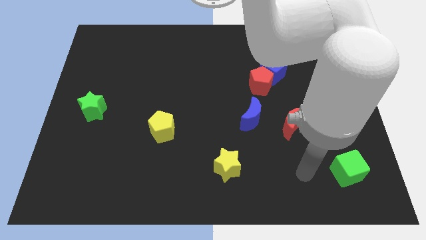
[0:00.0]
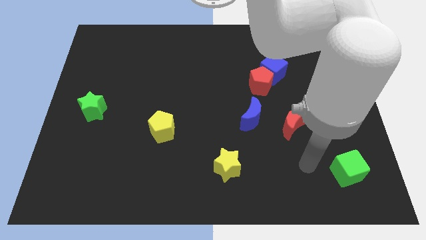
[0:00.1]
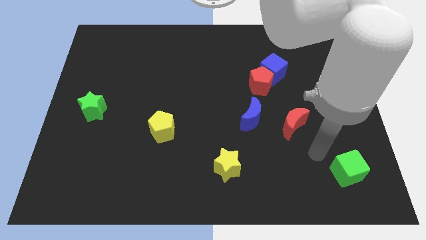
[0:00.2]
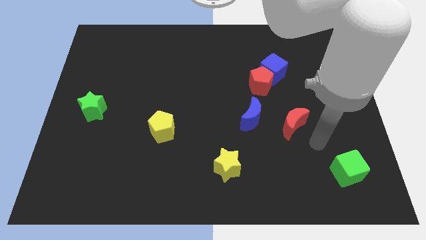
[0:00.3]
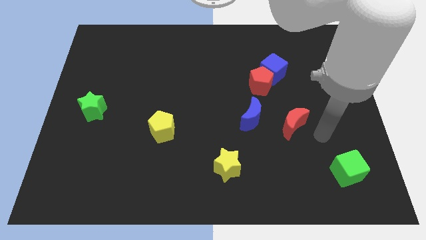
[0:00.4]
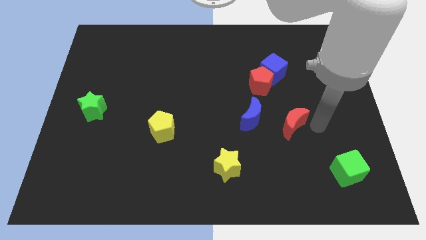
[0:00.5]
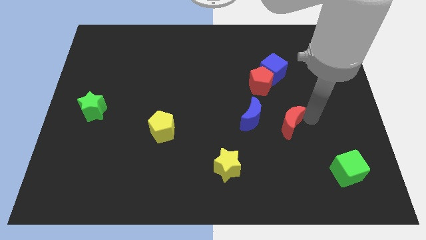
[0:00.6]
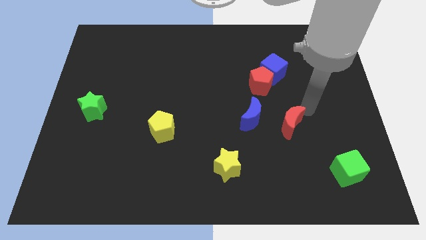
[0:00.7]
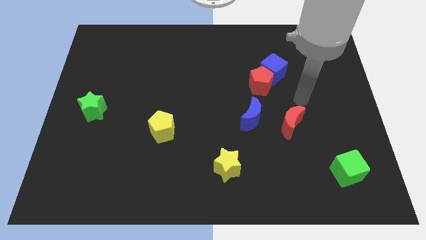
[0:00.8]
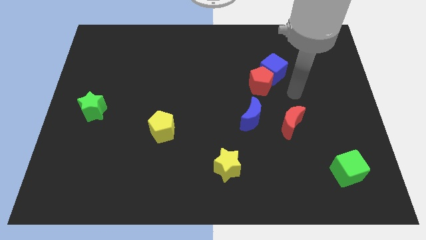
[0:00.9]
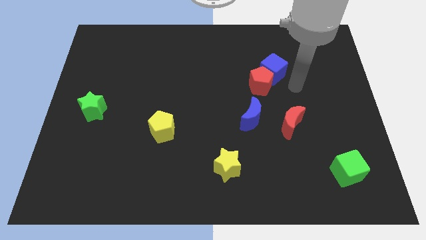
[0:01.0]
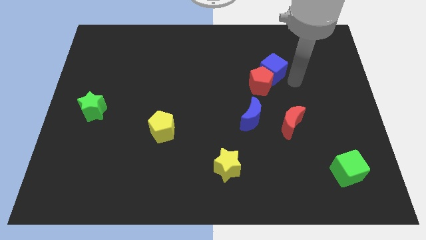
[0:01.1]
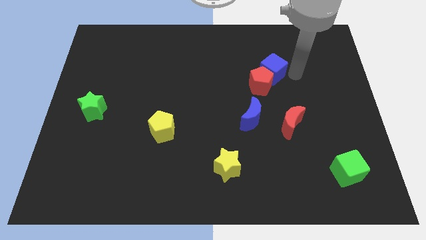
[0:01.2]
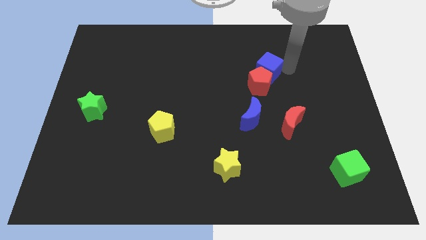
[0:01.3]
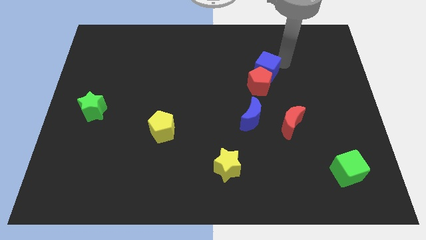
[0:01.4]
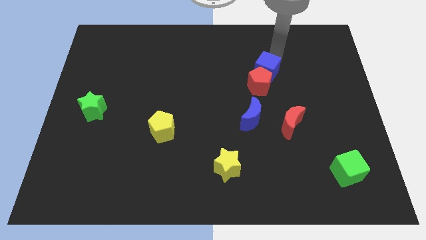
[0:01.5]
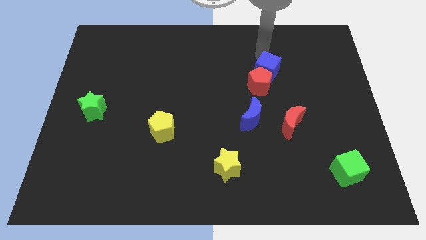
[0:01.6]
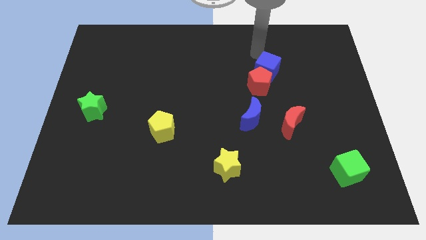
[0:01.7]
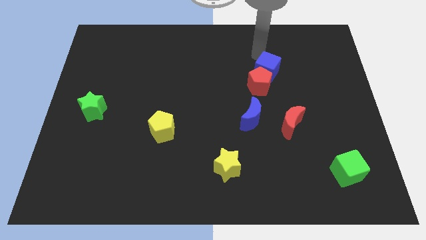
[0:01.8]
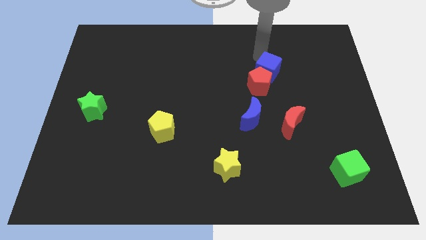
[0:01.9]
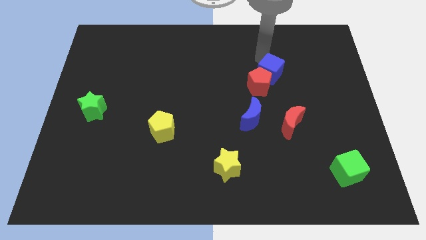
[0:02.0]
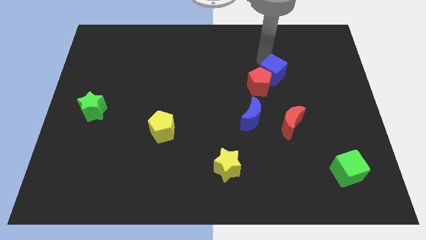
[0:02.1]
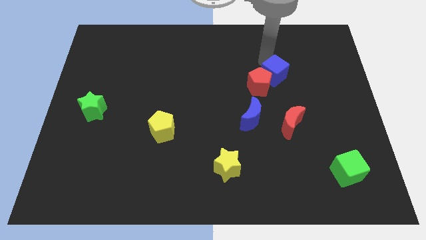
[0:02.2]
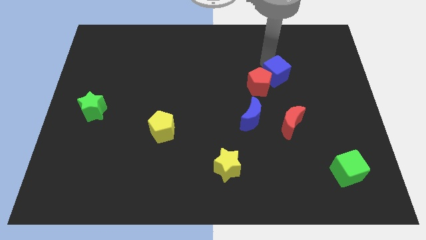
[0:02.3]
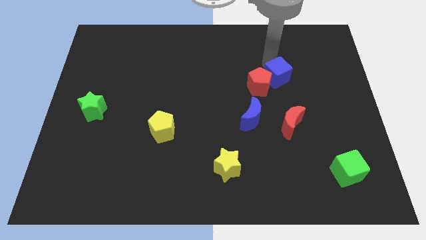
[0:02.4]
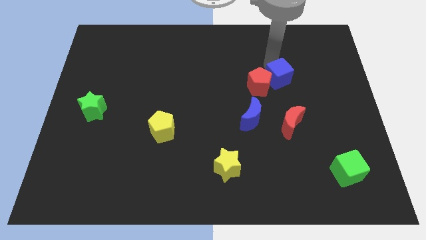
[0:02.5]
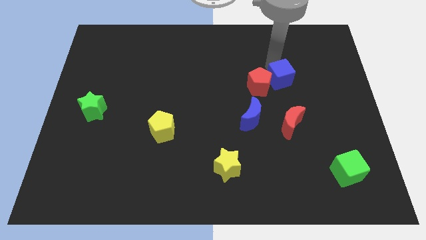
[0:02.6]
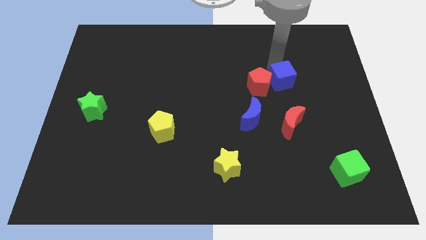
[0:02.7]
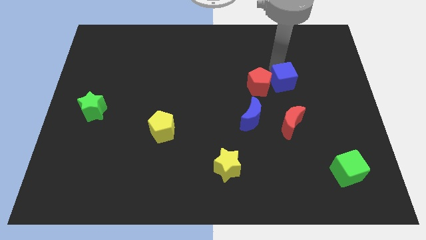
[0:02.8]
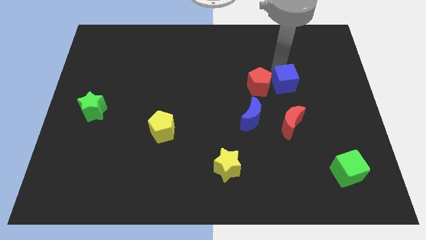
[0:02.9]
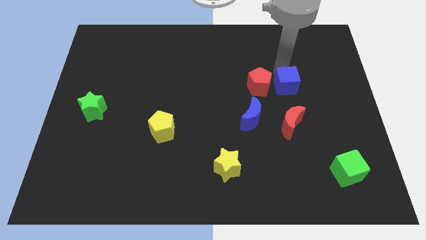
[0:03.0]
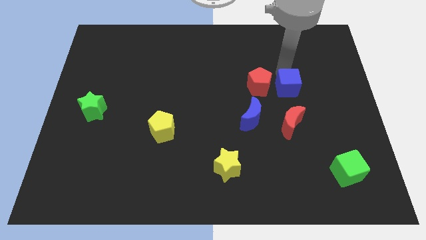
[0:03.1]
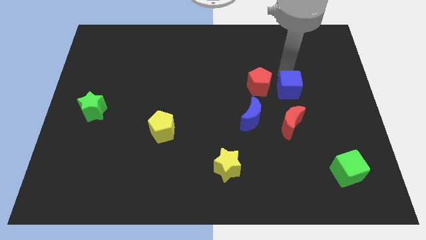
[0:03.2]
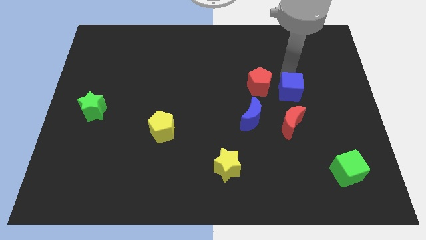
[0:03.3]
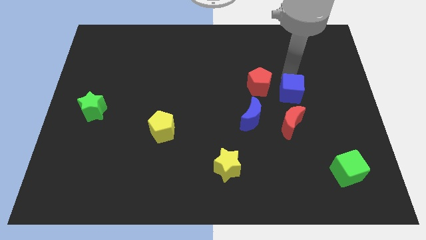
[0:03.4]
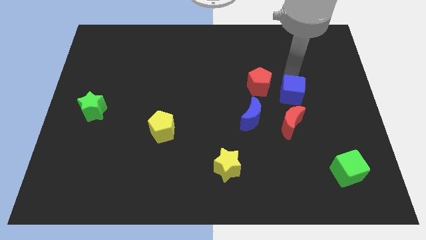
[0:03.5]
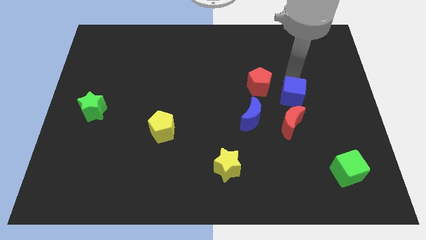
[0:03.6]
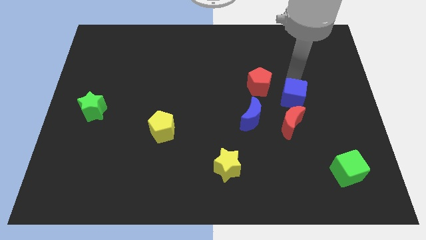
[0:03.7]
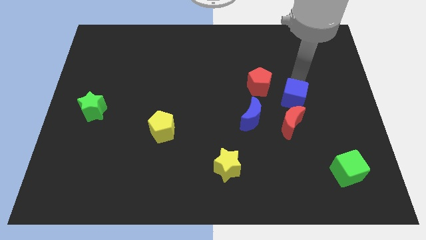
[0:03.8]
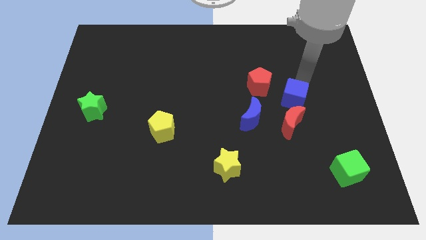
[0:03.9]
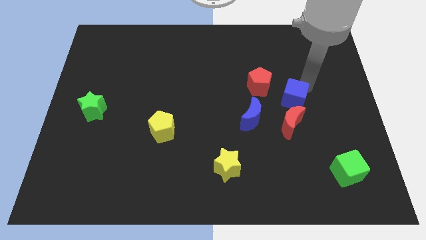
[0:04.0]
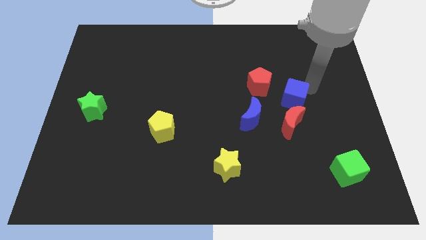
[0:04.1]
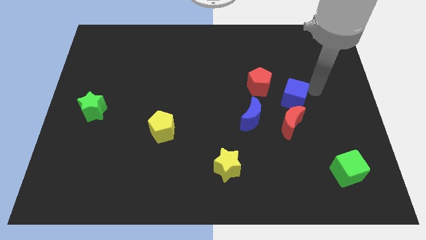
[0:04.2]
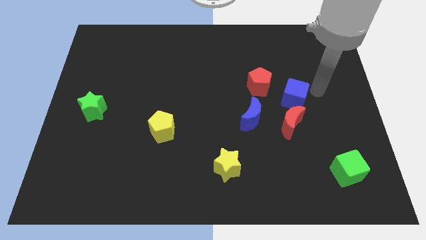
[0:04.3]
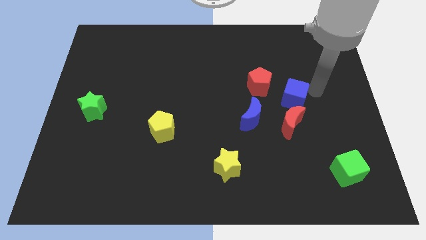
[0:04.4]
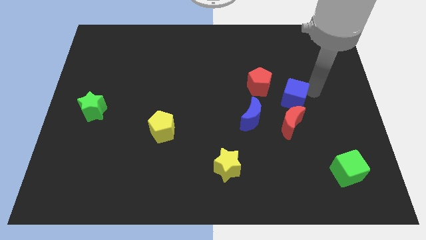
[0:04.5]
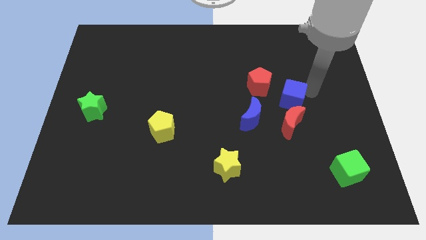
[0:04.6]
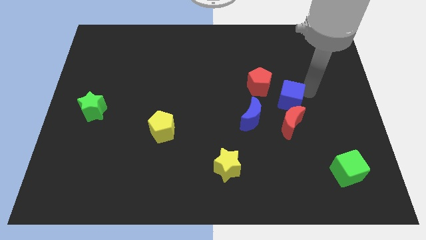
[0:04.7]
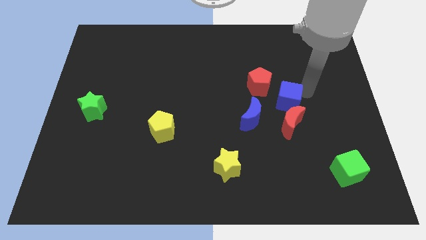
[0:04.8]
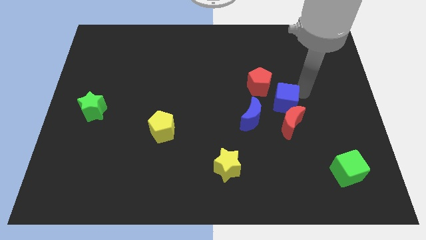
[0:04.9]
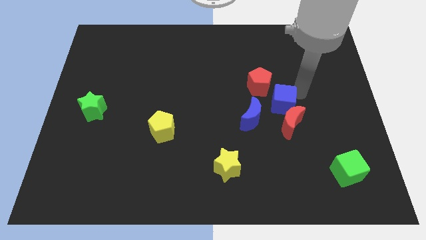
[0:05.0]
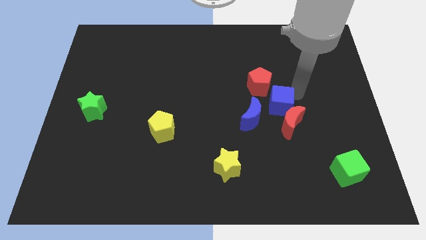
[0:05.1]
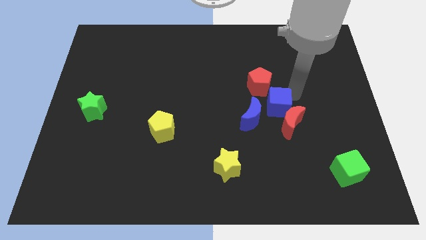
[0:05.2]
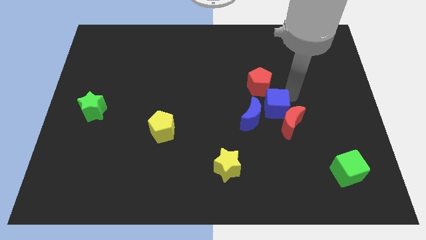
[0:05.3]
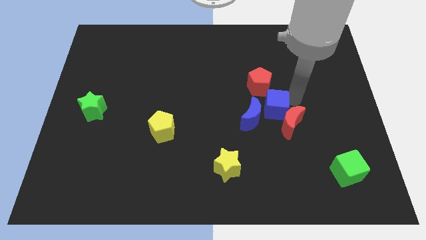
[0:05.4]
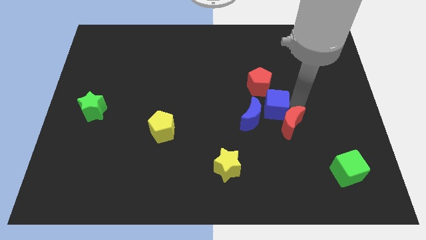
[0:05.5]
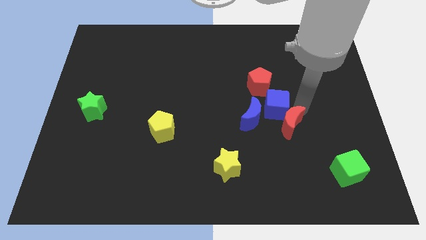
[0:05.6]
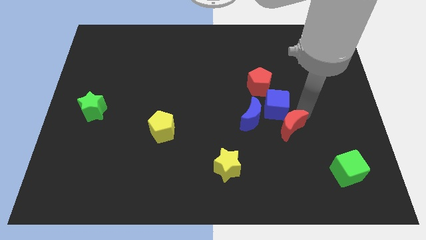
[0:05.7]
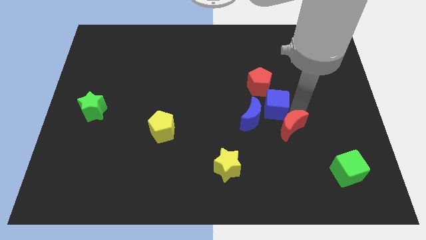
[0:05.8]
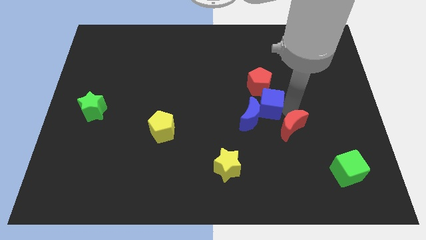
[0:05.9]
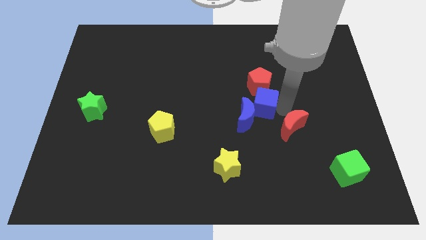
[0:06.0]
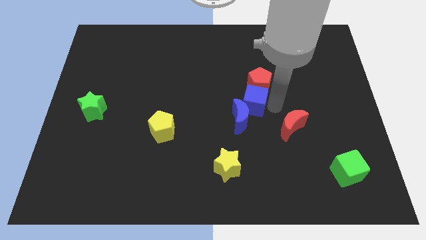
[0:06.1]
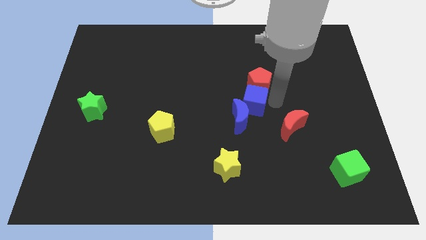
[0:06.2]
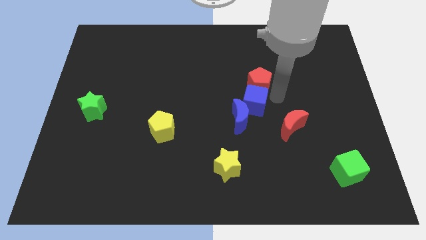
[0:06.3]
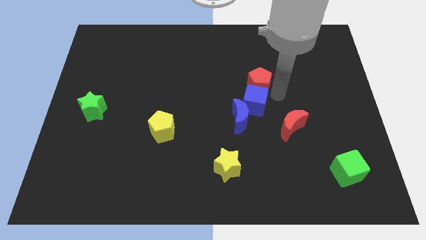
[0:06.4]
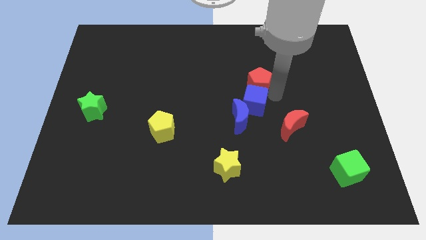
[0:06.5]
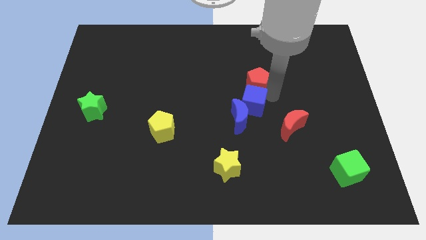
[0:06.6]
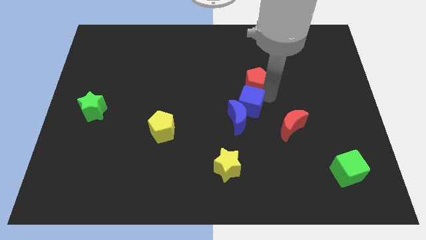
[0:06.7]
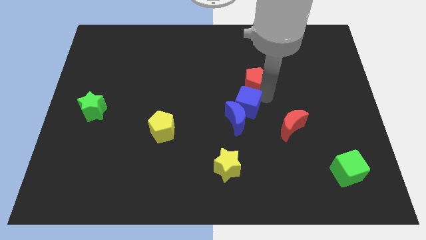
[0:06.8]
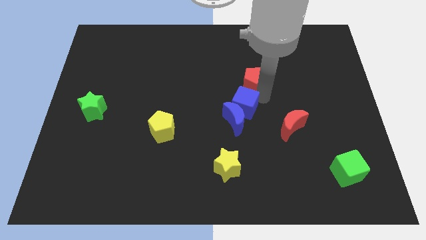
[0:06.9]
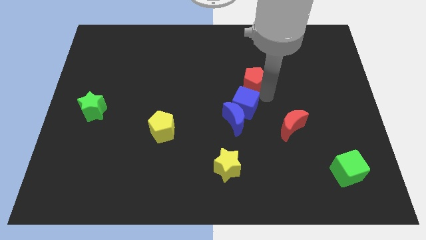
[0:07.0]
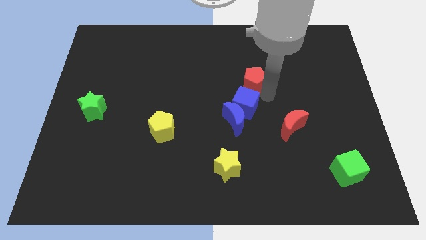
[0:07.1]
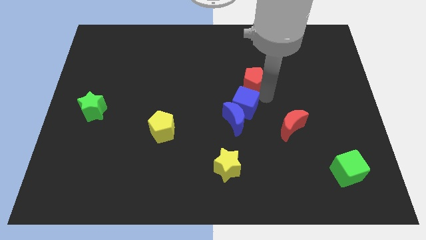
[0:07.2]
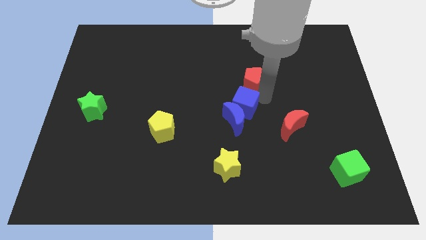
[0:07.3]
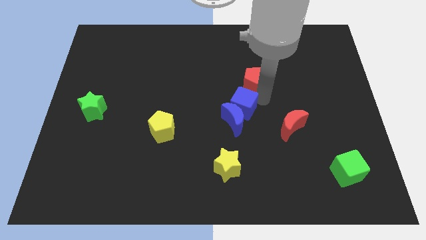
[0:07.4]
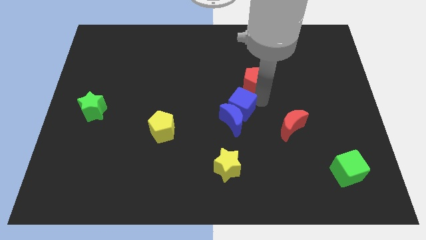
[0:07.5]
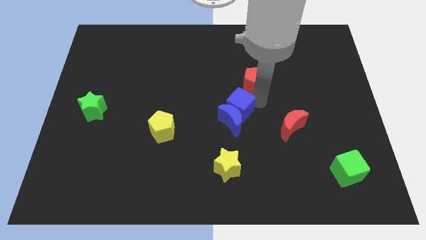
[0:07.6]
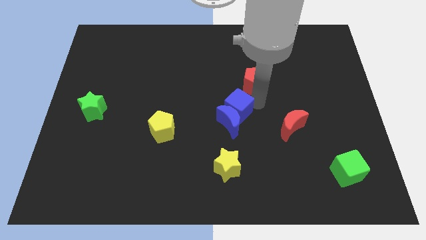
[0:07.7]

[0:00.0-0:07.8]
slide the blue cube to the left side of the red moon

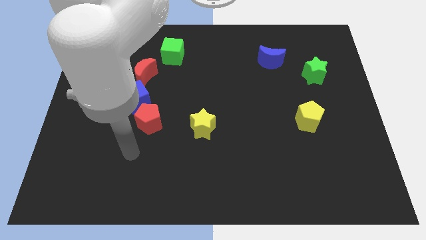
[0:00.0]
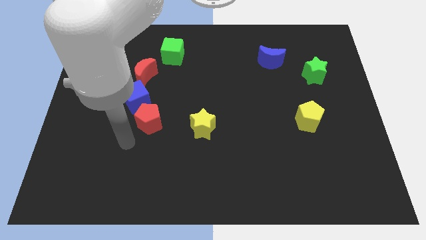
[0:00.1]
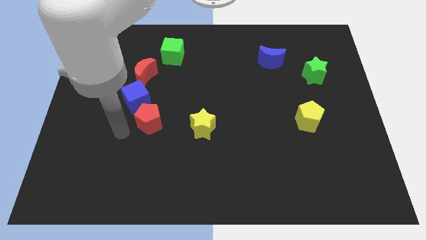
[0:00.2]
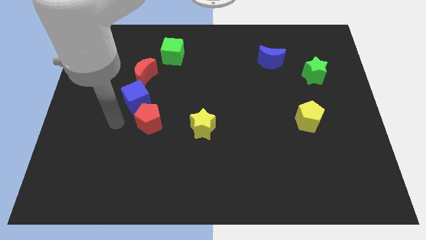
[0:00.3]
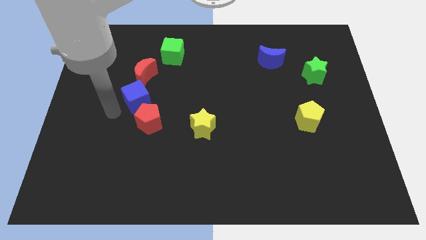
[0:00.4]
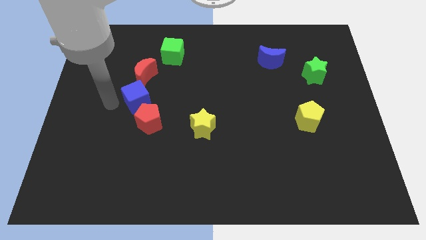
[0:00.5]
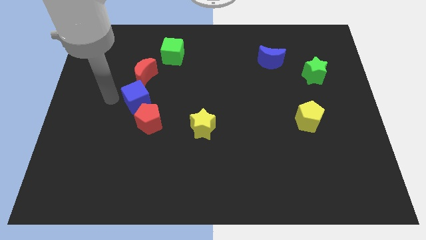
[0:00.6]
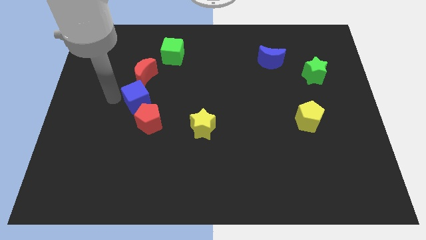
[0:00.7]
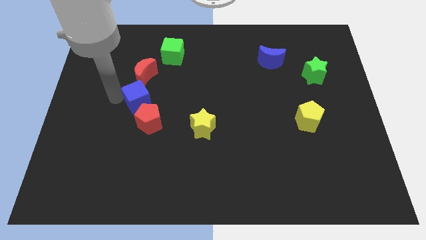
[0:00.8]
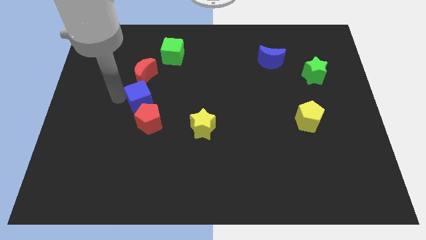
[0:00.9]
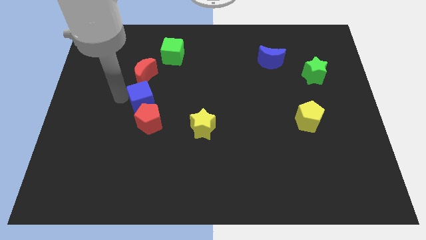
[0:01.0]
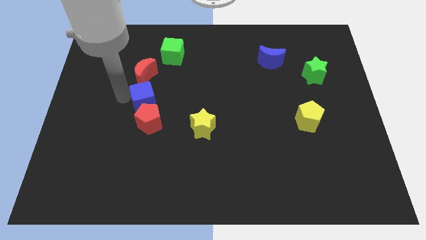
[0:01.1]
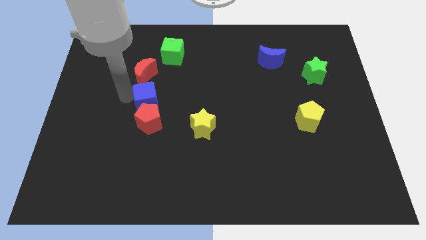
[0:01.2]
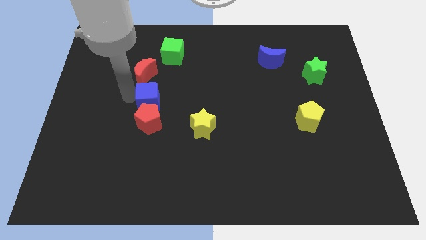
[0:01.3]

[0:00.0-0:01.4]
push the blue cube to the top right of the red pentagon
